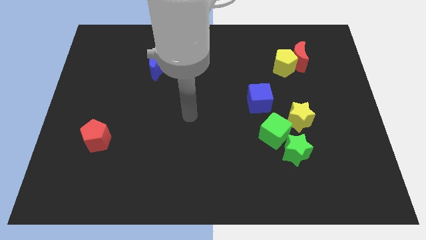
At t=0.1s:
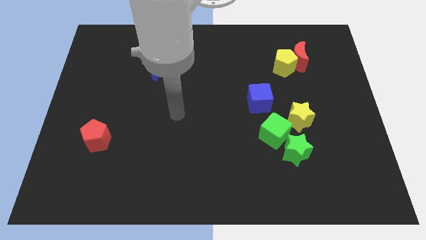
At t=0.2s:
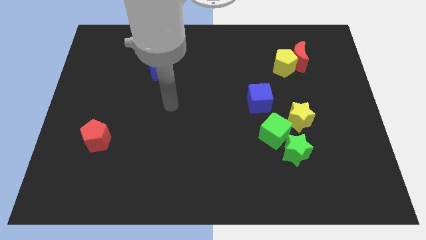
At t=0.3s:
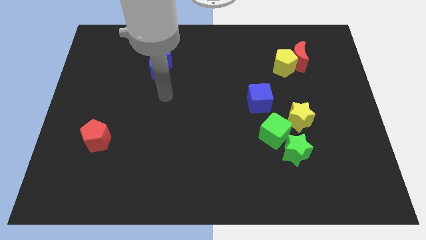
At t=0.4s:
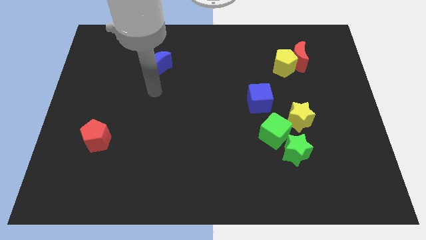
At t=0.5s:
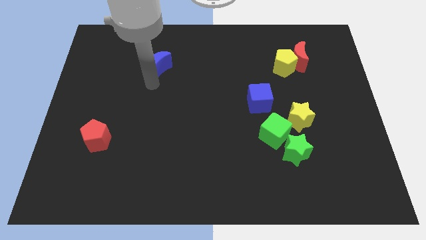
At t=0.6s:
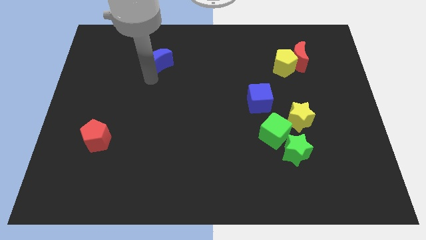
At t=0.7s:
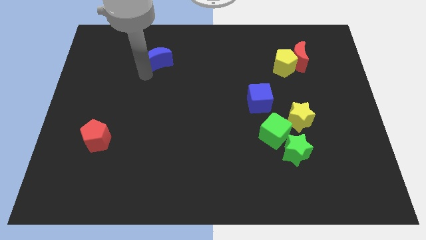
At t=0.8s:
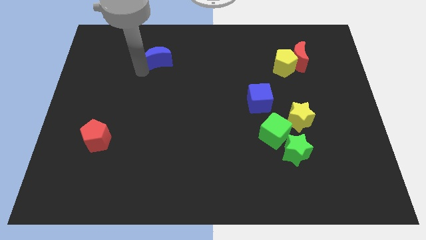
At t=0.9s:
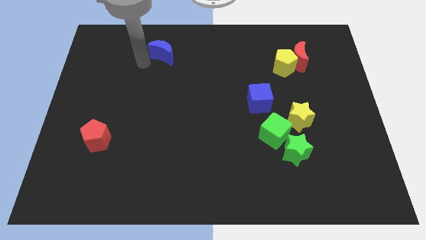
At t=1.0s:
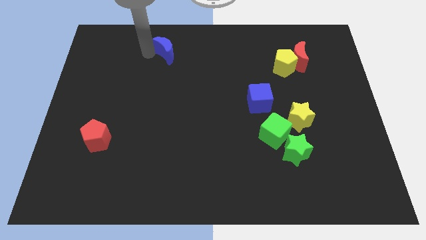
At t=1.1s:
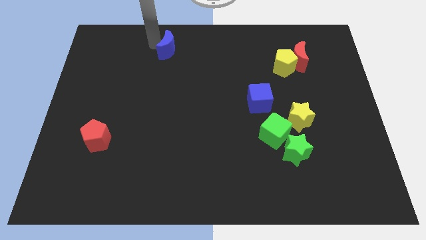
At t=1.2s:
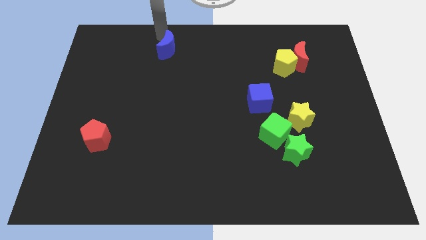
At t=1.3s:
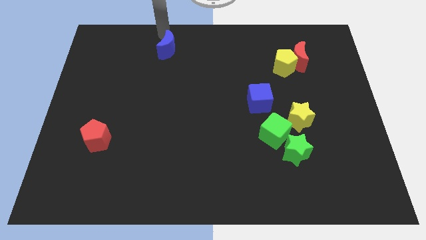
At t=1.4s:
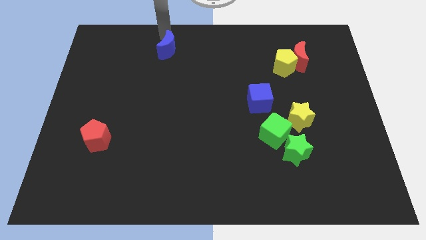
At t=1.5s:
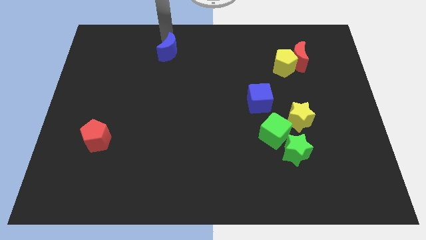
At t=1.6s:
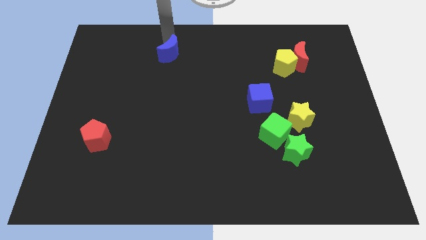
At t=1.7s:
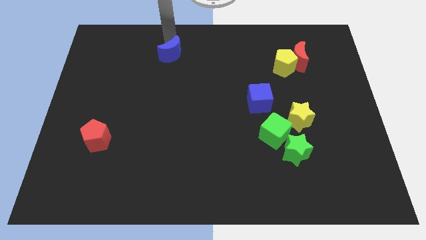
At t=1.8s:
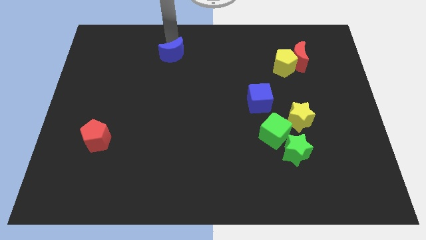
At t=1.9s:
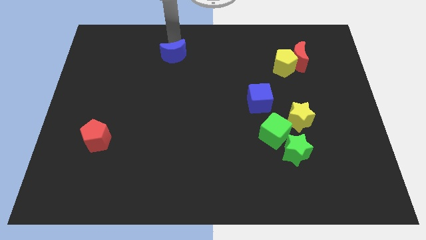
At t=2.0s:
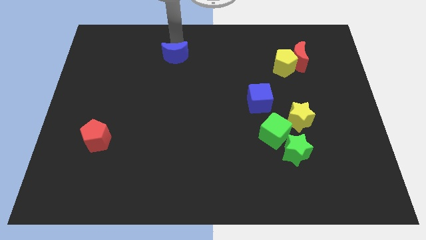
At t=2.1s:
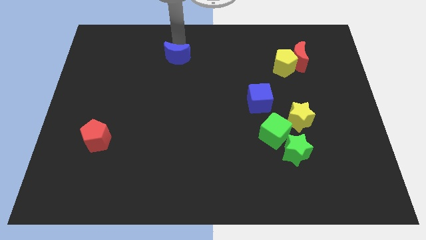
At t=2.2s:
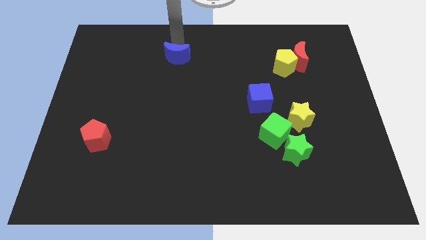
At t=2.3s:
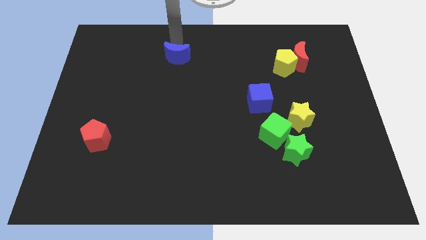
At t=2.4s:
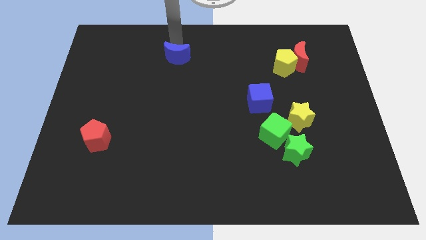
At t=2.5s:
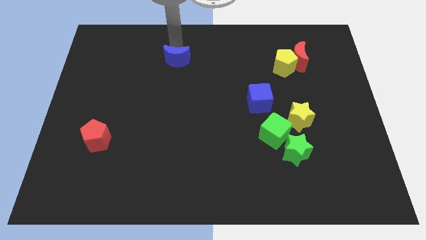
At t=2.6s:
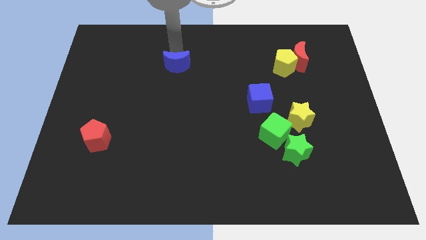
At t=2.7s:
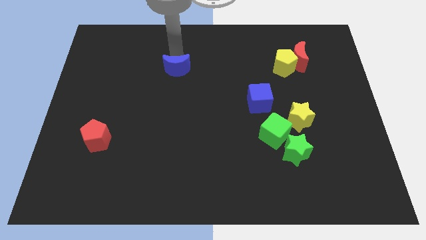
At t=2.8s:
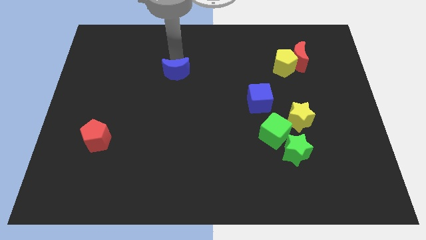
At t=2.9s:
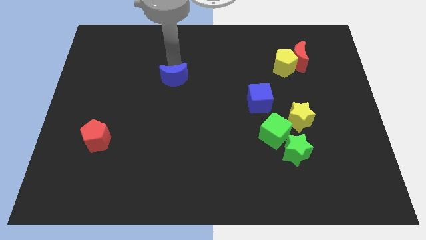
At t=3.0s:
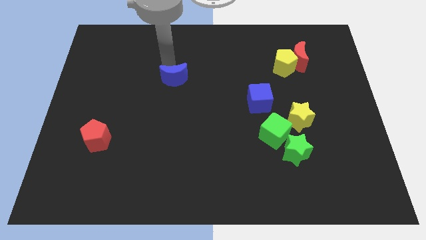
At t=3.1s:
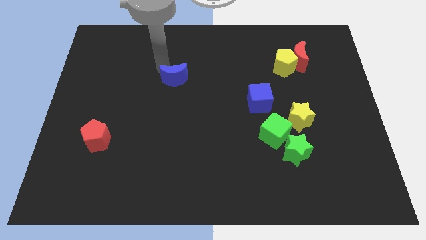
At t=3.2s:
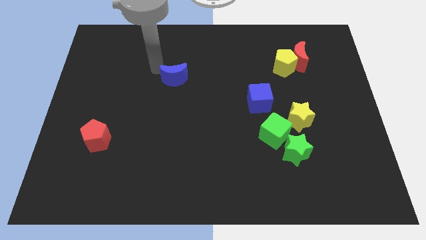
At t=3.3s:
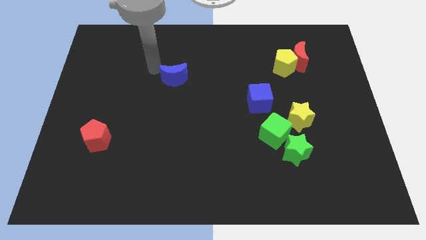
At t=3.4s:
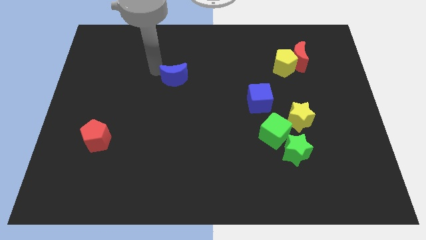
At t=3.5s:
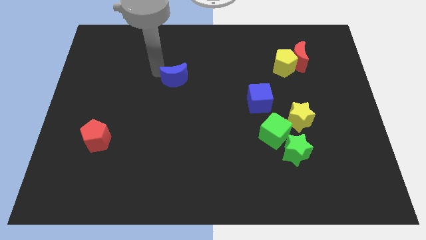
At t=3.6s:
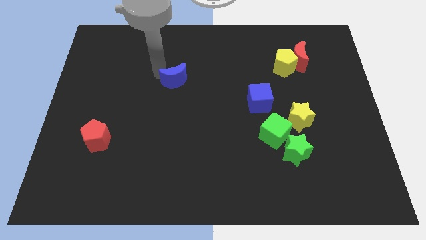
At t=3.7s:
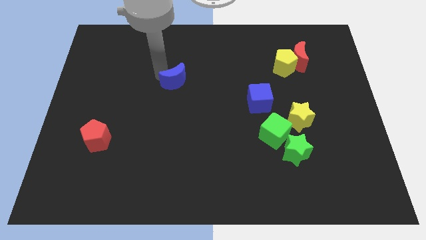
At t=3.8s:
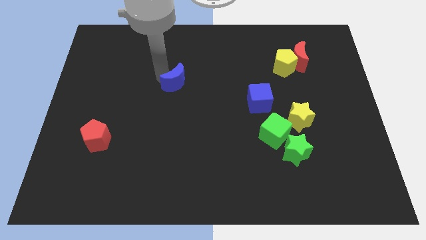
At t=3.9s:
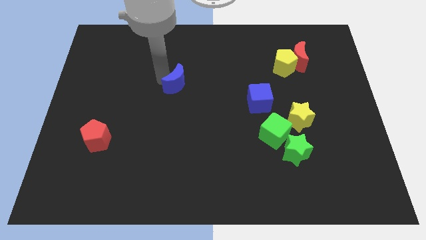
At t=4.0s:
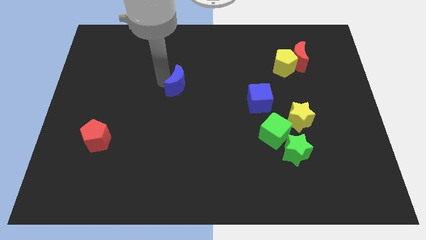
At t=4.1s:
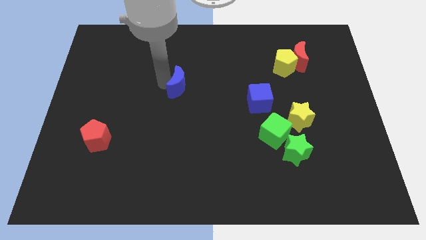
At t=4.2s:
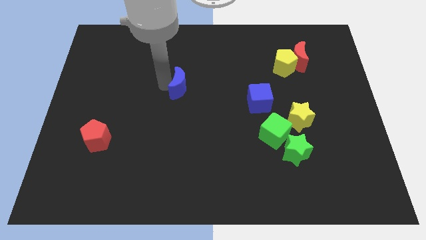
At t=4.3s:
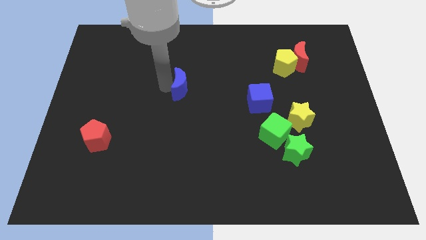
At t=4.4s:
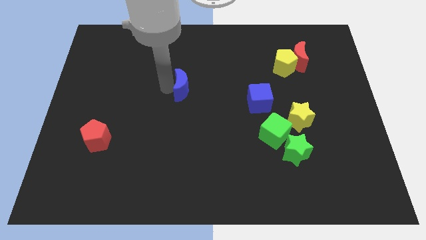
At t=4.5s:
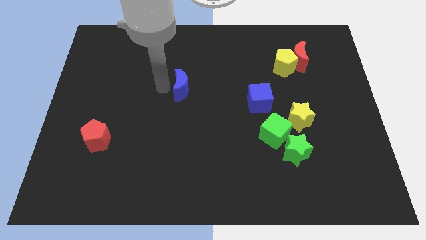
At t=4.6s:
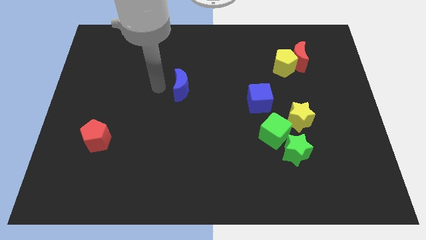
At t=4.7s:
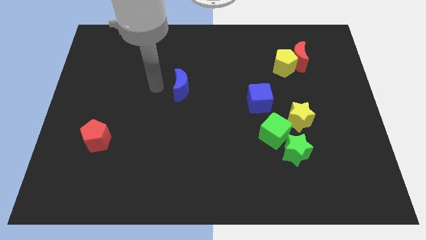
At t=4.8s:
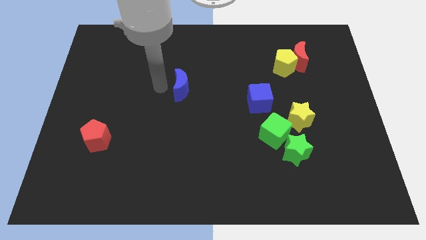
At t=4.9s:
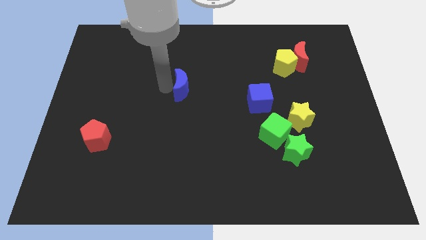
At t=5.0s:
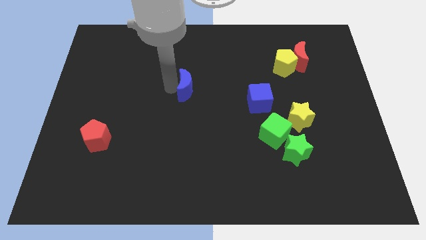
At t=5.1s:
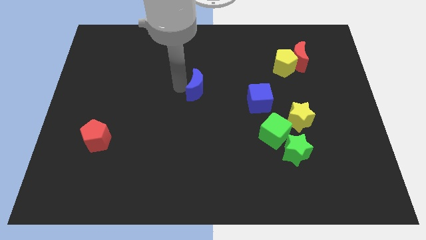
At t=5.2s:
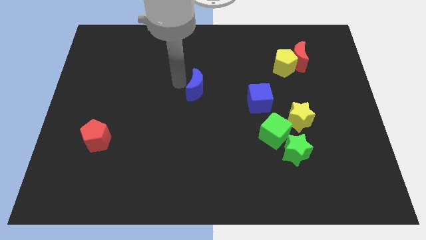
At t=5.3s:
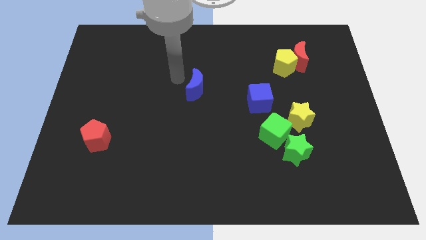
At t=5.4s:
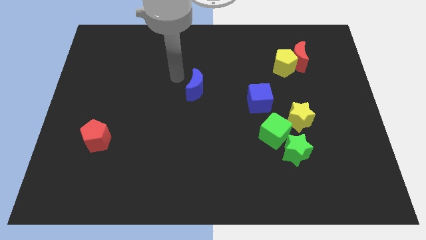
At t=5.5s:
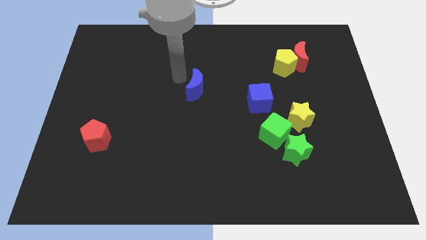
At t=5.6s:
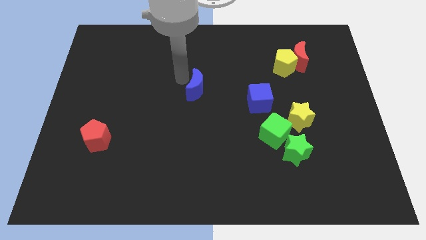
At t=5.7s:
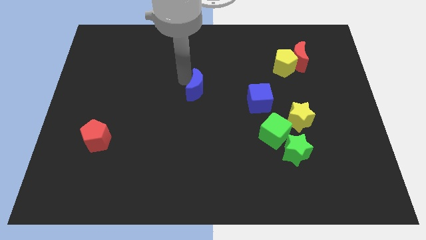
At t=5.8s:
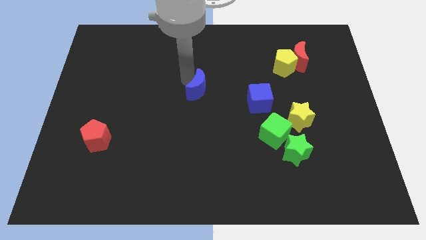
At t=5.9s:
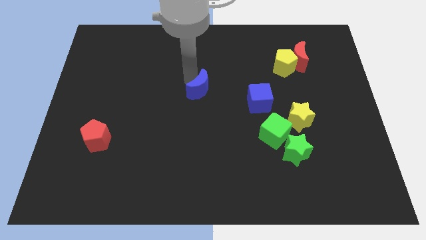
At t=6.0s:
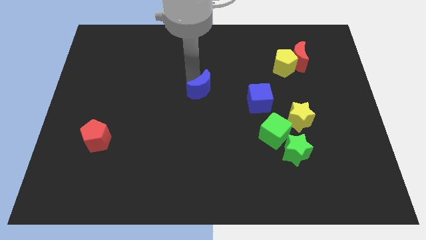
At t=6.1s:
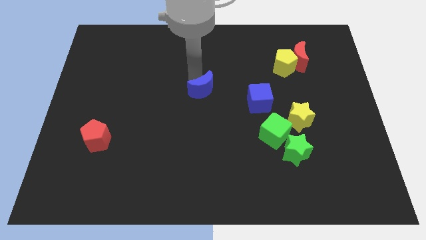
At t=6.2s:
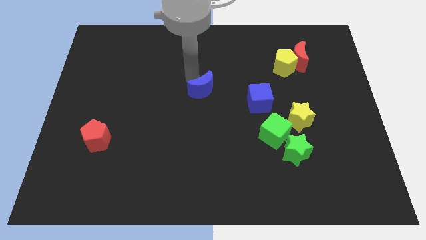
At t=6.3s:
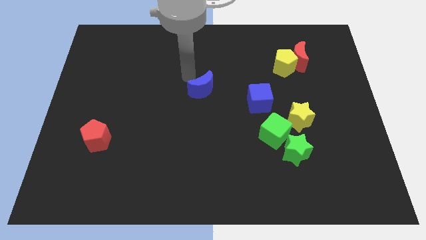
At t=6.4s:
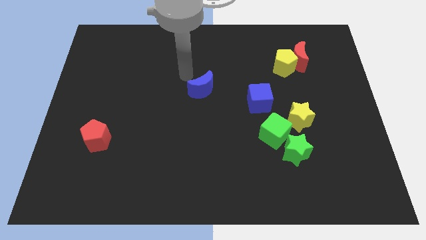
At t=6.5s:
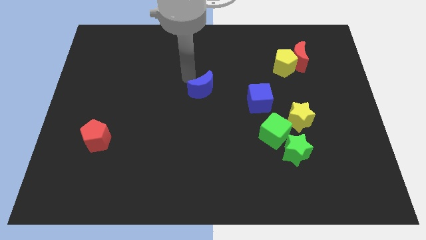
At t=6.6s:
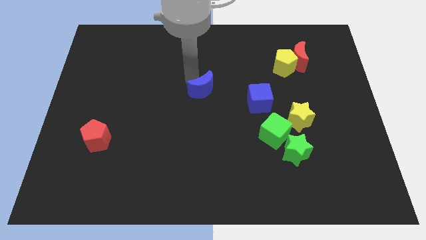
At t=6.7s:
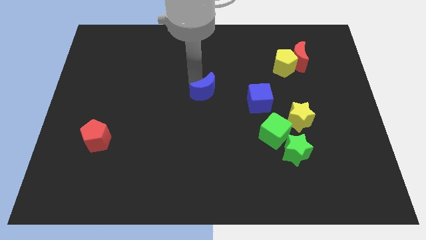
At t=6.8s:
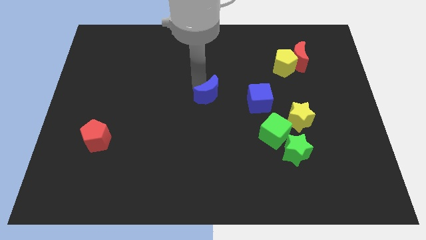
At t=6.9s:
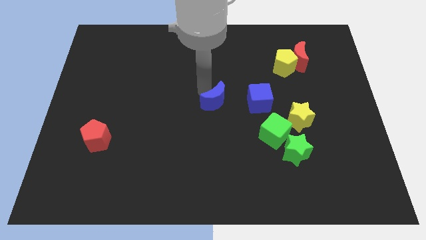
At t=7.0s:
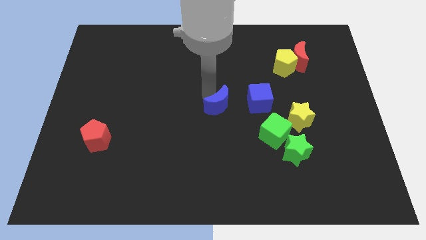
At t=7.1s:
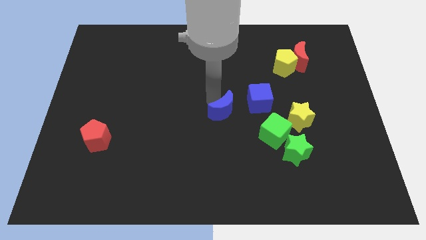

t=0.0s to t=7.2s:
put the blue moon to the bottom left of the blue cube
